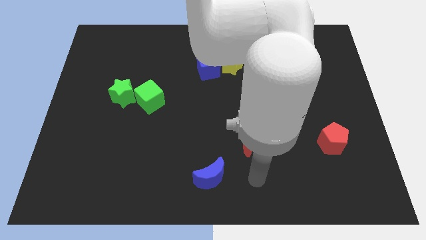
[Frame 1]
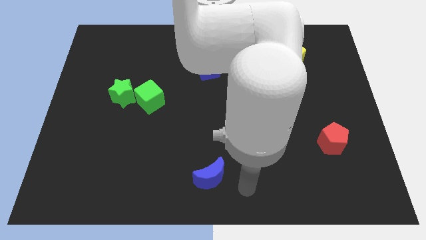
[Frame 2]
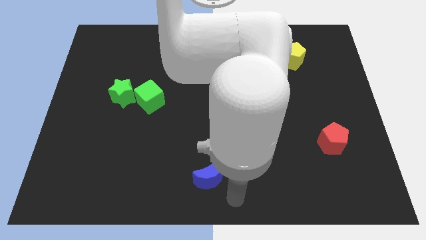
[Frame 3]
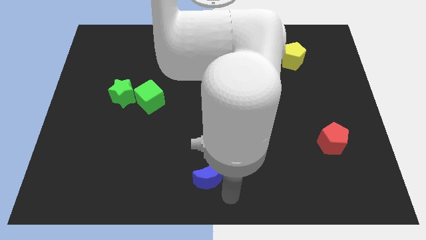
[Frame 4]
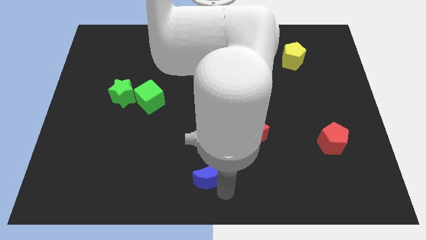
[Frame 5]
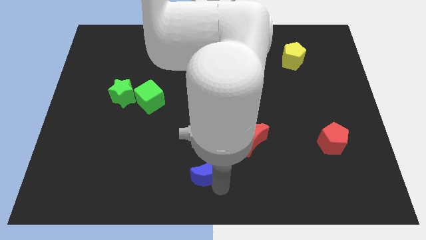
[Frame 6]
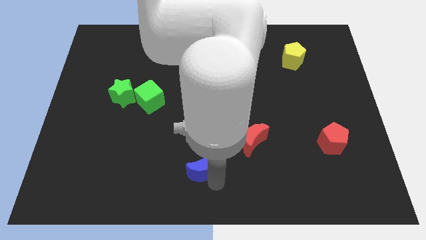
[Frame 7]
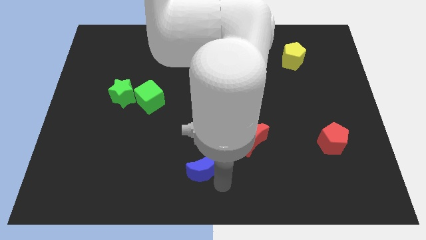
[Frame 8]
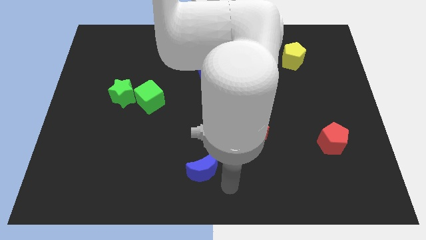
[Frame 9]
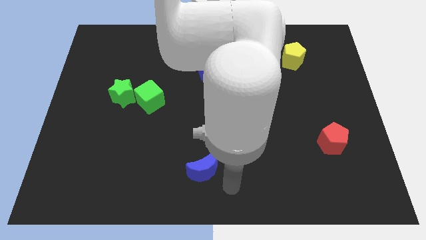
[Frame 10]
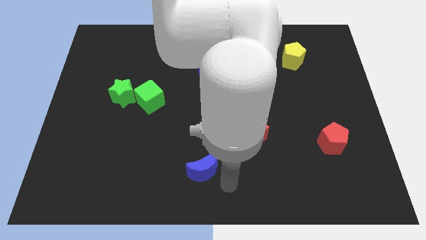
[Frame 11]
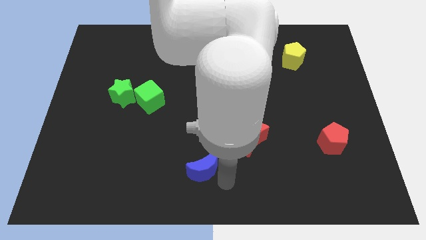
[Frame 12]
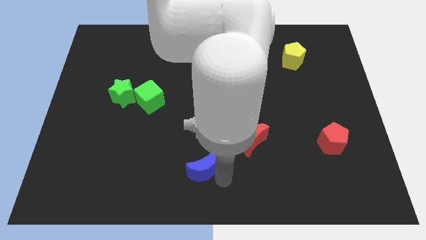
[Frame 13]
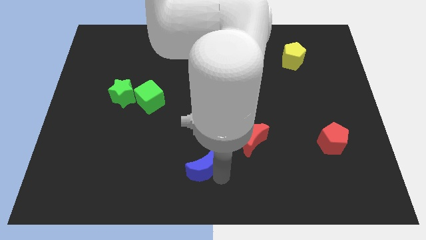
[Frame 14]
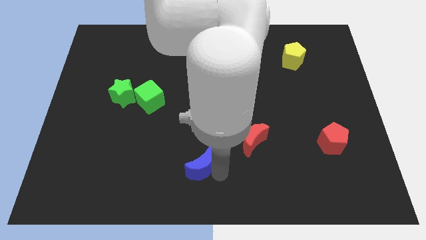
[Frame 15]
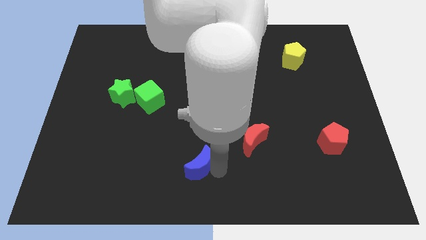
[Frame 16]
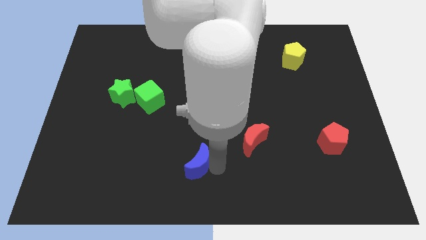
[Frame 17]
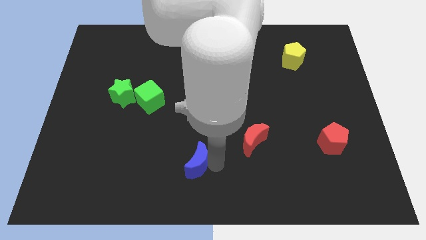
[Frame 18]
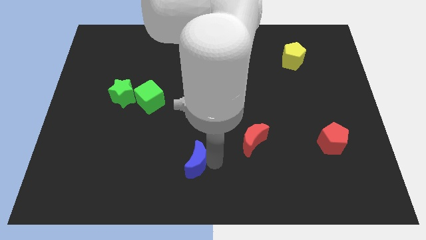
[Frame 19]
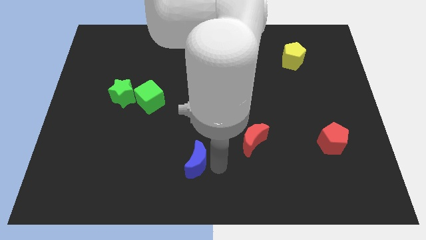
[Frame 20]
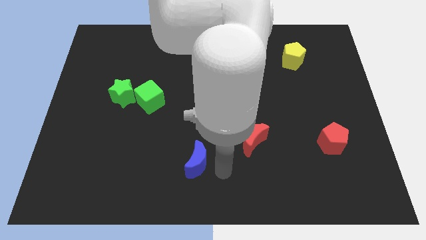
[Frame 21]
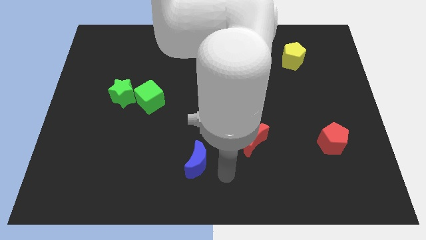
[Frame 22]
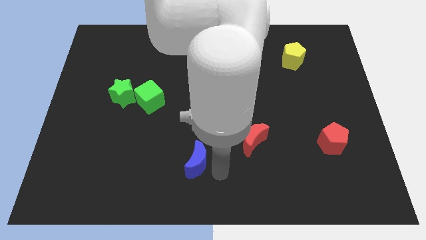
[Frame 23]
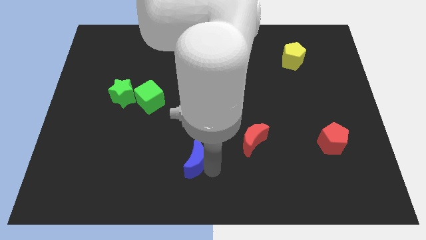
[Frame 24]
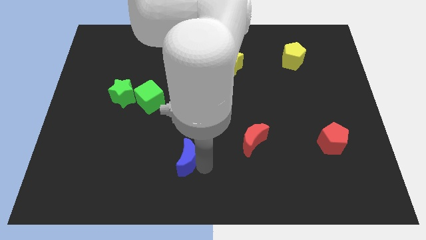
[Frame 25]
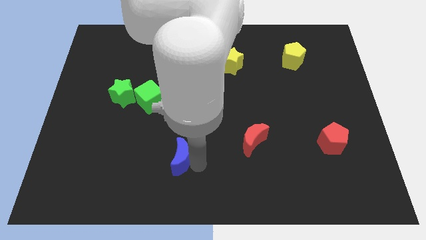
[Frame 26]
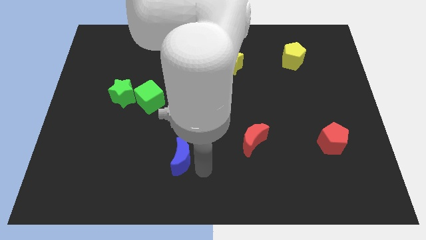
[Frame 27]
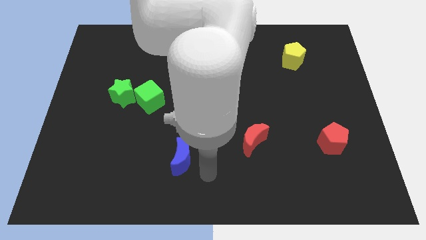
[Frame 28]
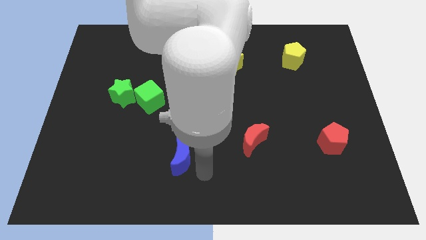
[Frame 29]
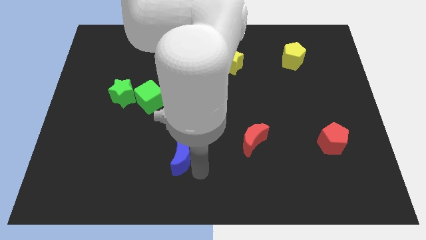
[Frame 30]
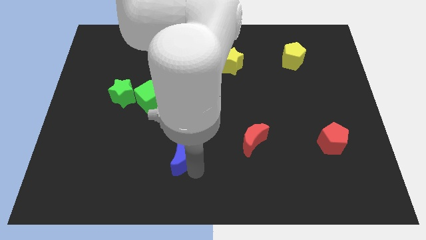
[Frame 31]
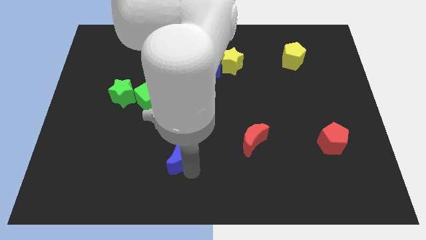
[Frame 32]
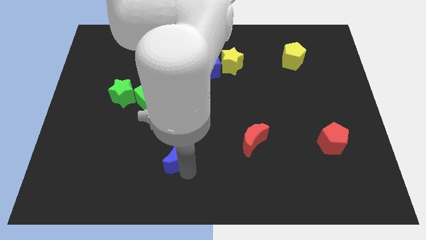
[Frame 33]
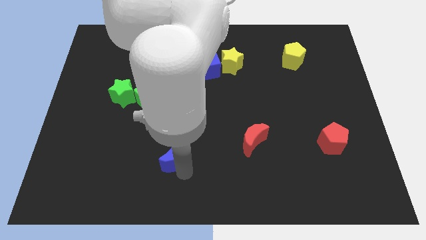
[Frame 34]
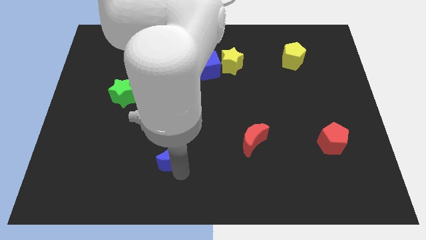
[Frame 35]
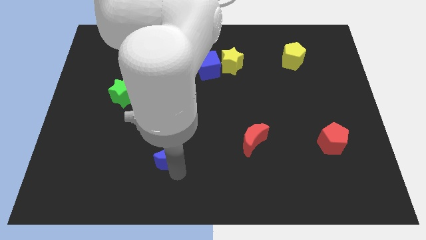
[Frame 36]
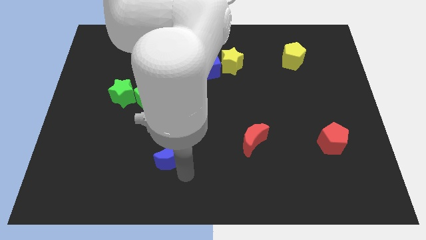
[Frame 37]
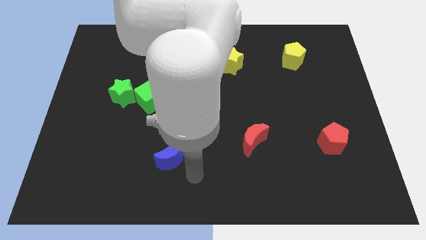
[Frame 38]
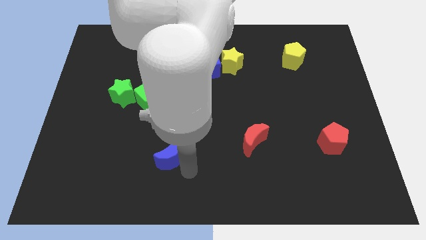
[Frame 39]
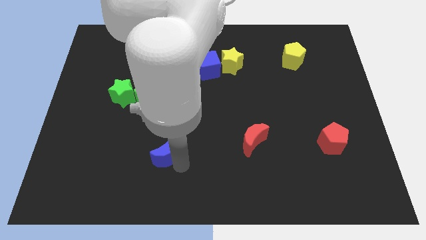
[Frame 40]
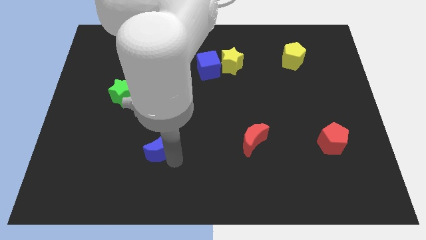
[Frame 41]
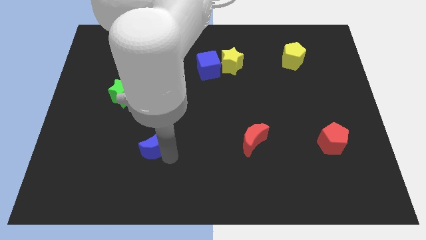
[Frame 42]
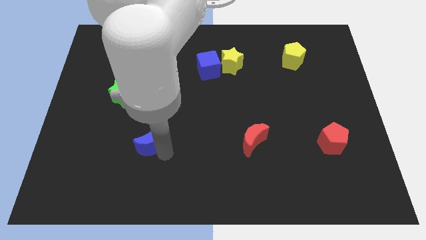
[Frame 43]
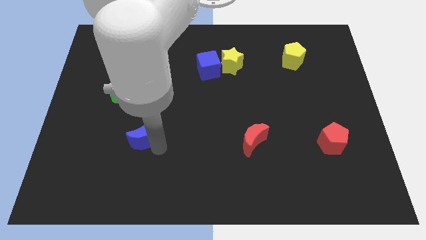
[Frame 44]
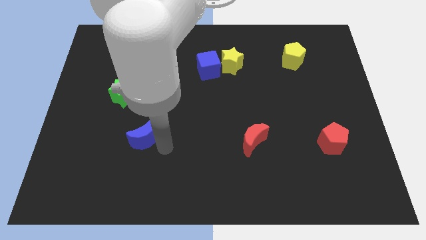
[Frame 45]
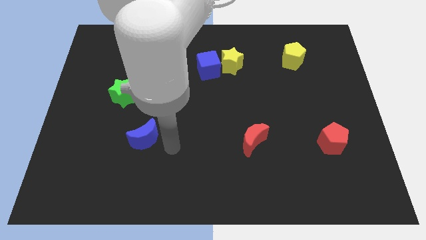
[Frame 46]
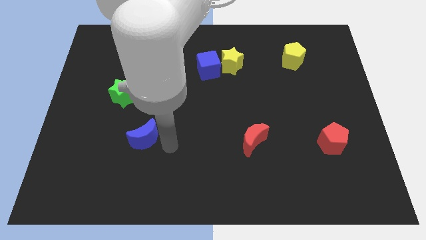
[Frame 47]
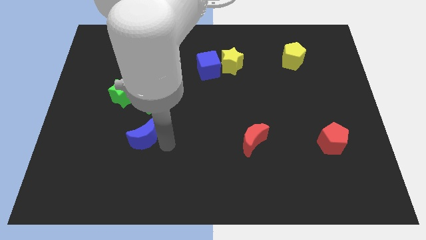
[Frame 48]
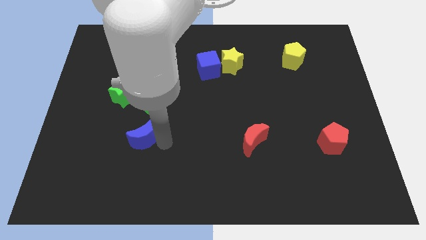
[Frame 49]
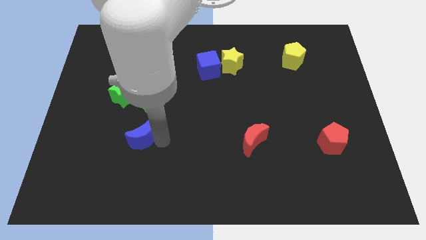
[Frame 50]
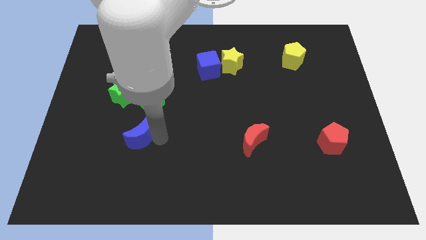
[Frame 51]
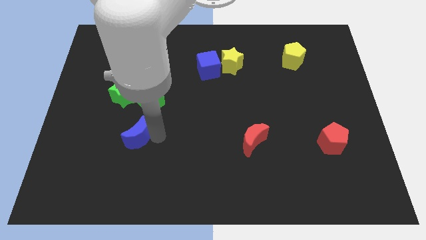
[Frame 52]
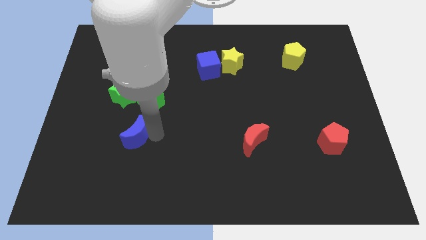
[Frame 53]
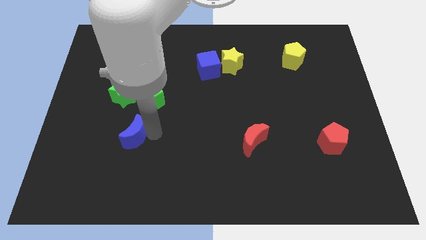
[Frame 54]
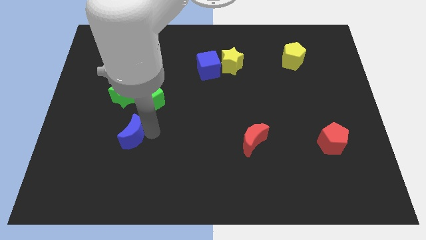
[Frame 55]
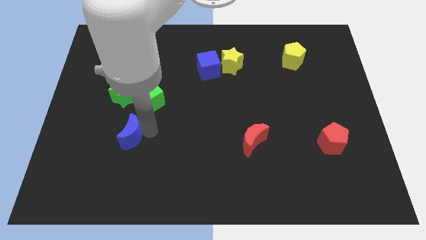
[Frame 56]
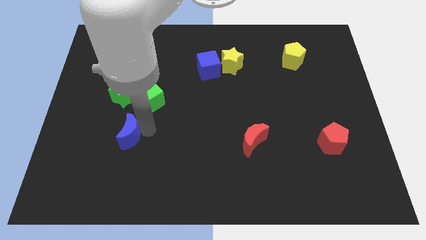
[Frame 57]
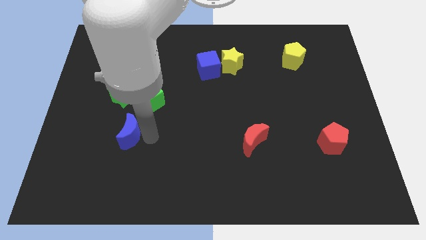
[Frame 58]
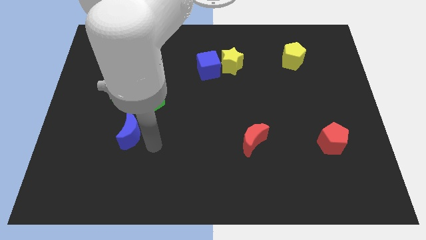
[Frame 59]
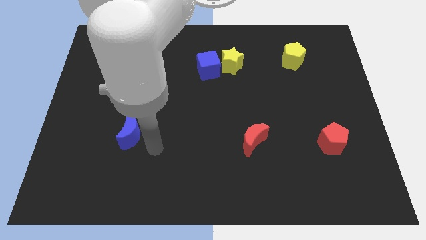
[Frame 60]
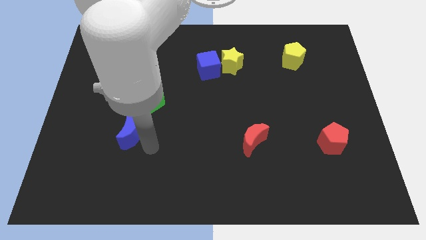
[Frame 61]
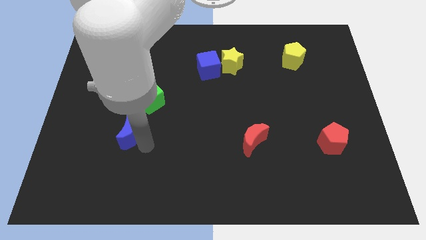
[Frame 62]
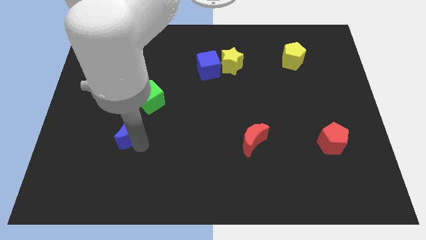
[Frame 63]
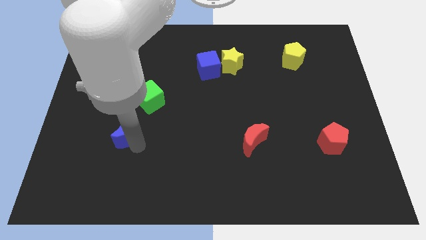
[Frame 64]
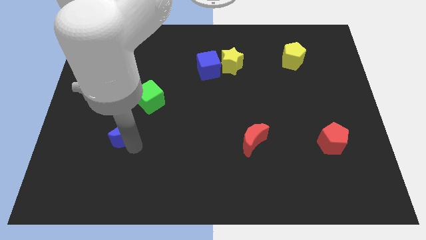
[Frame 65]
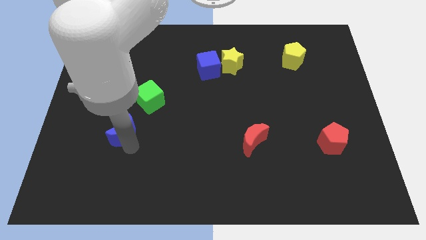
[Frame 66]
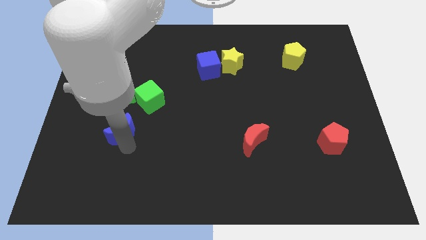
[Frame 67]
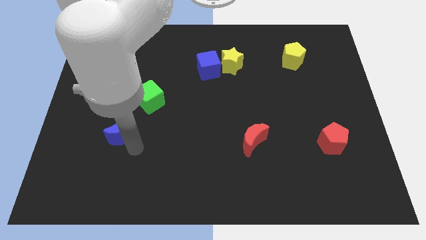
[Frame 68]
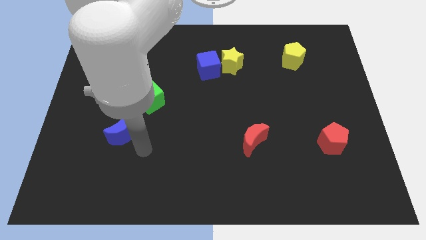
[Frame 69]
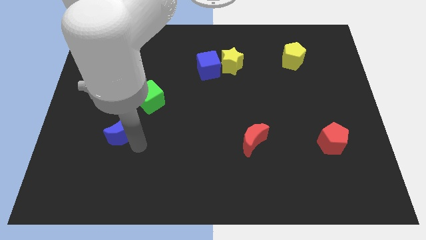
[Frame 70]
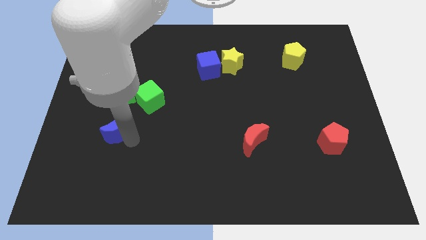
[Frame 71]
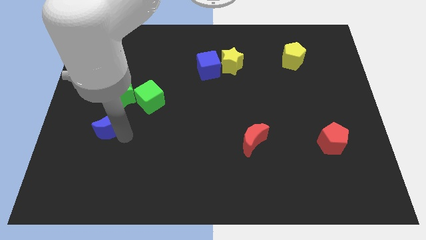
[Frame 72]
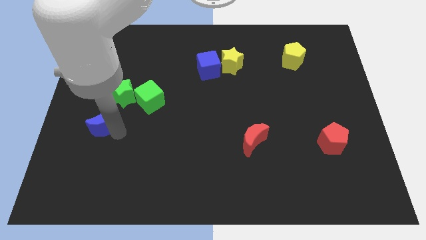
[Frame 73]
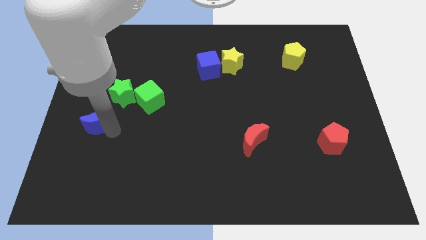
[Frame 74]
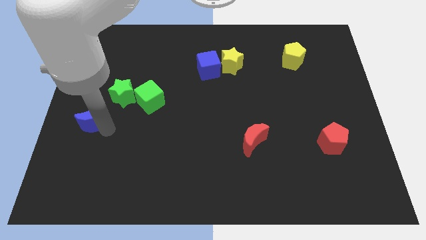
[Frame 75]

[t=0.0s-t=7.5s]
put the blue moon to the left side of the board
